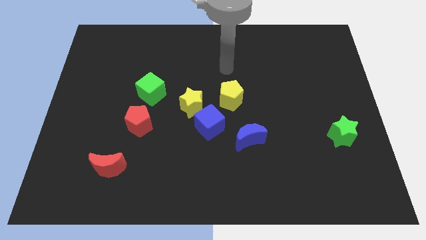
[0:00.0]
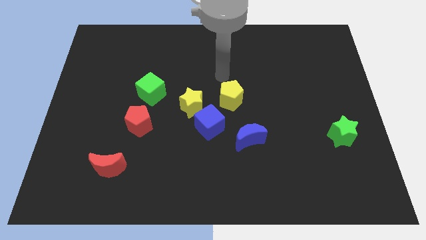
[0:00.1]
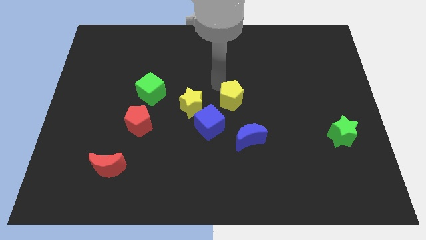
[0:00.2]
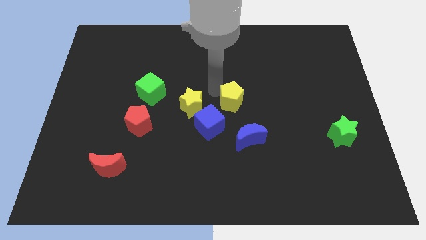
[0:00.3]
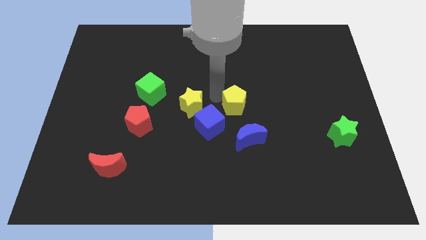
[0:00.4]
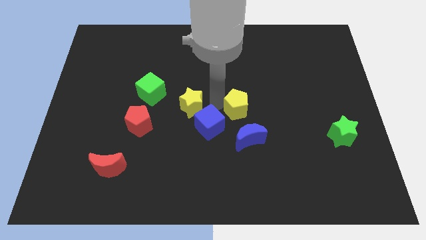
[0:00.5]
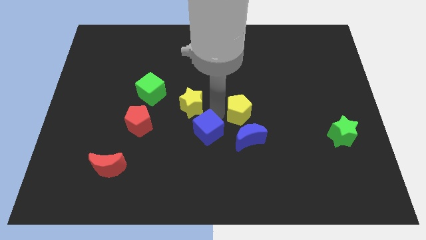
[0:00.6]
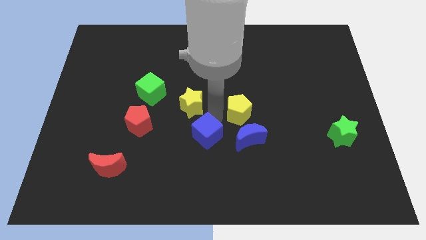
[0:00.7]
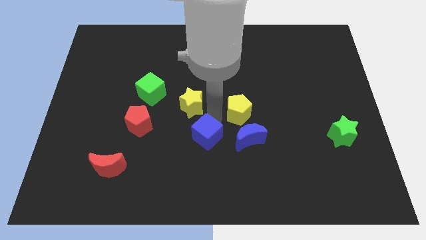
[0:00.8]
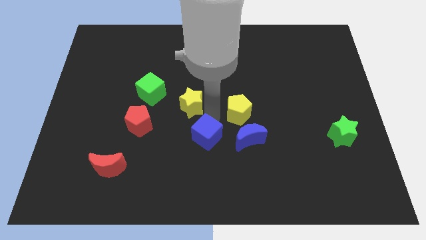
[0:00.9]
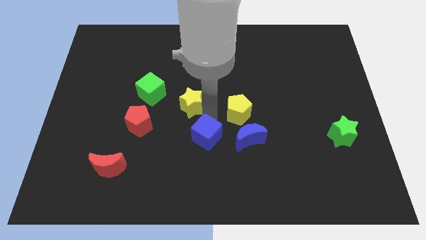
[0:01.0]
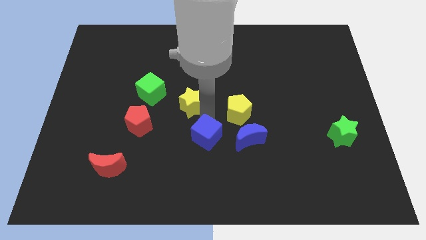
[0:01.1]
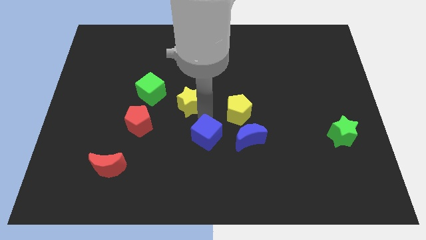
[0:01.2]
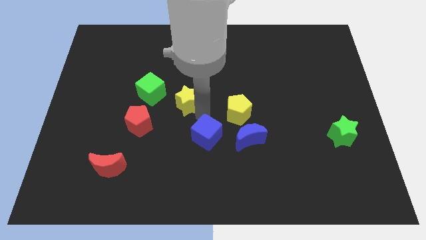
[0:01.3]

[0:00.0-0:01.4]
pull the yellow star apart from the blue cube and yellow pentagon

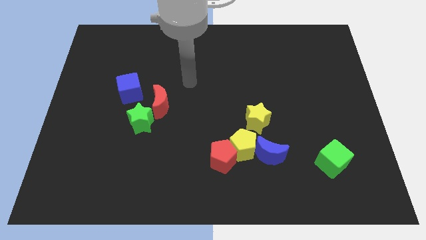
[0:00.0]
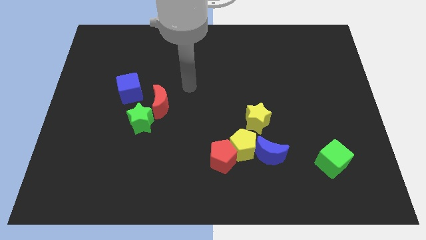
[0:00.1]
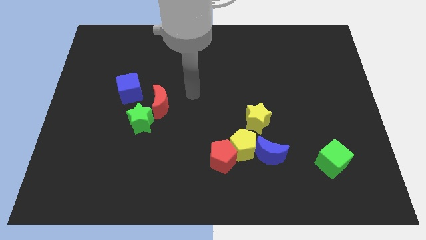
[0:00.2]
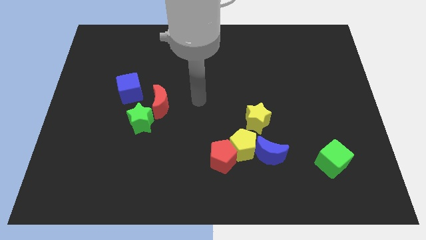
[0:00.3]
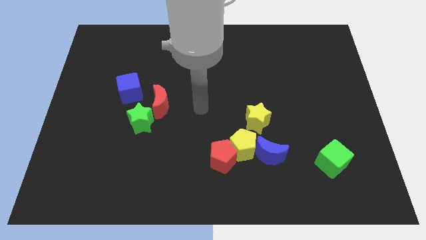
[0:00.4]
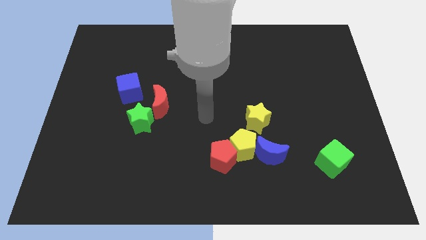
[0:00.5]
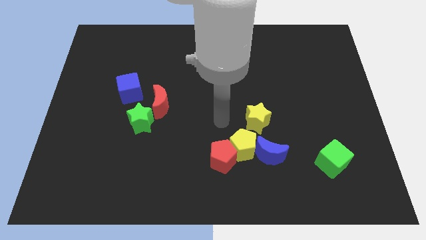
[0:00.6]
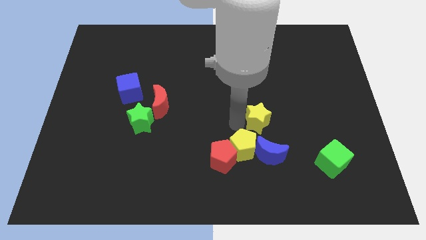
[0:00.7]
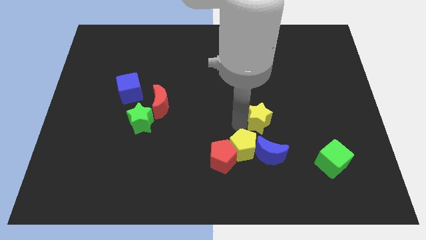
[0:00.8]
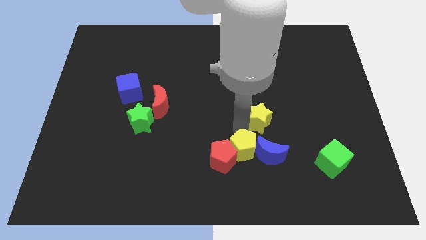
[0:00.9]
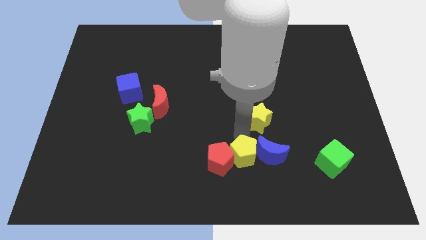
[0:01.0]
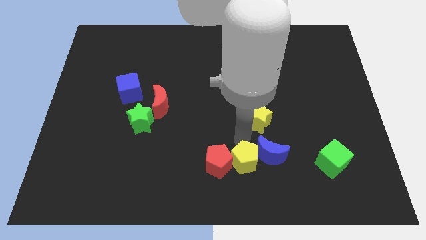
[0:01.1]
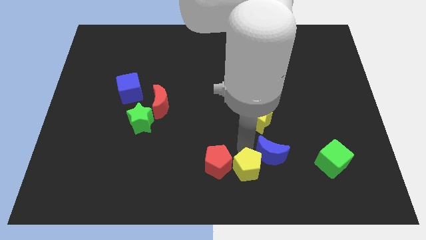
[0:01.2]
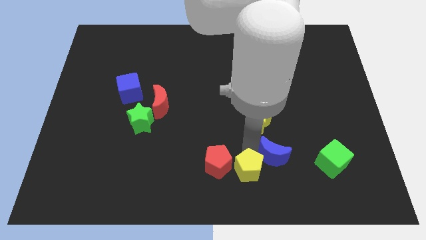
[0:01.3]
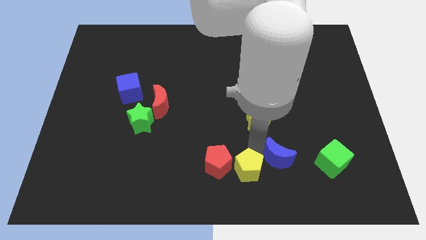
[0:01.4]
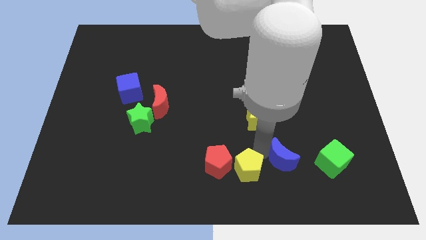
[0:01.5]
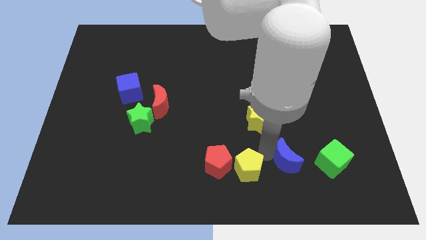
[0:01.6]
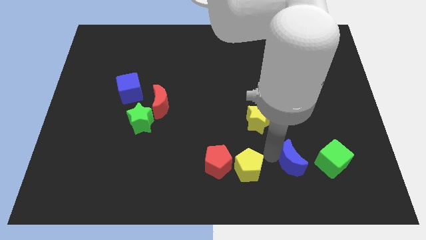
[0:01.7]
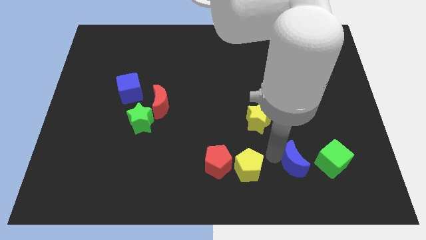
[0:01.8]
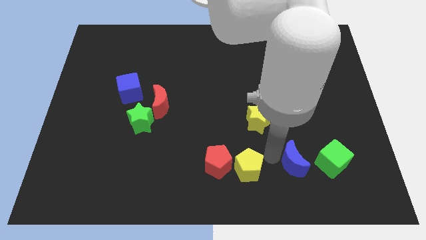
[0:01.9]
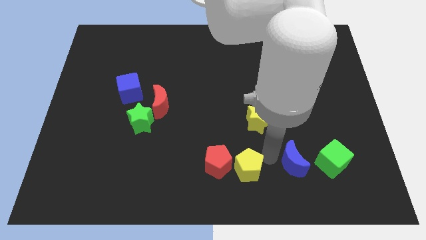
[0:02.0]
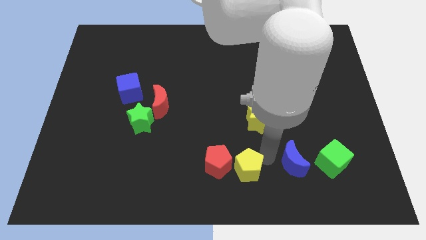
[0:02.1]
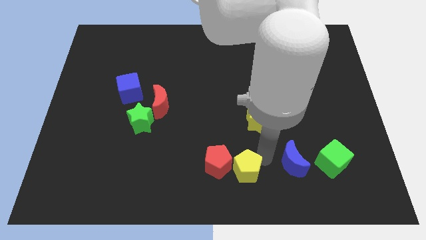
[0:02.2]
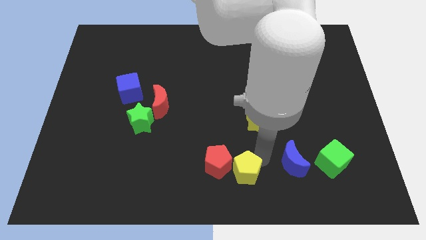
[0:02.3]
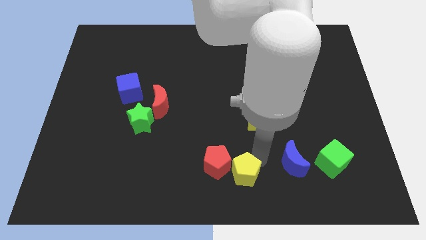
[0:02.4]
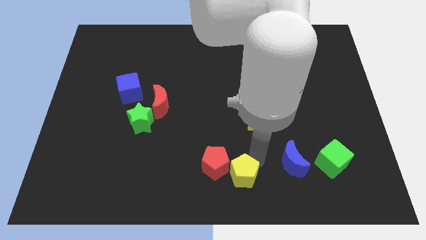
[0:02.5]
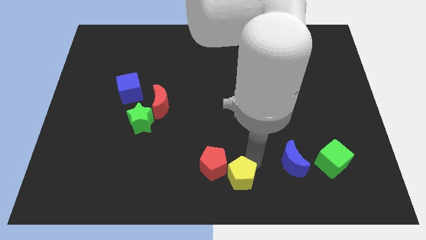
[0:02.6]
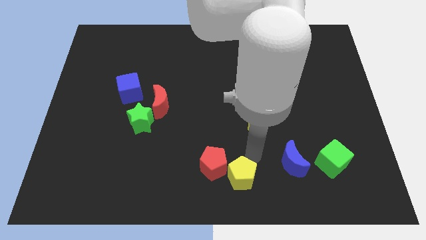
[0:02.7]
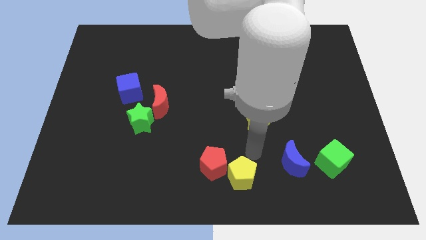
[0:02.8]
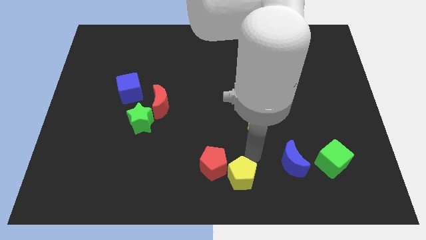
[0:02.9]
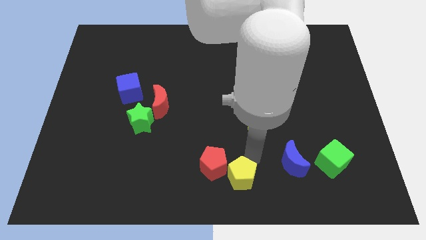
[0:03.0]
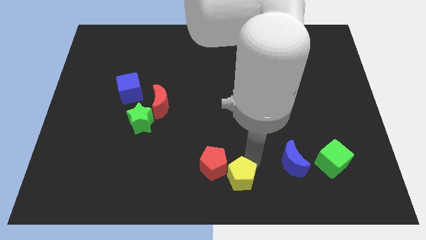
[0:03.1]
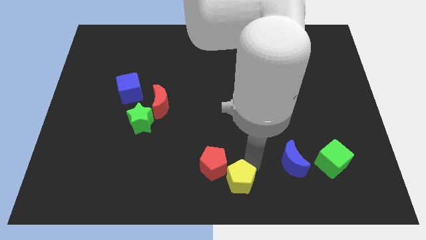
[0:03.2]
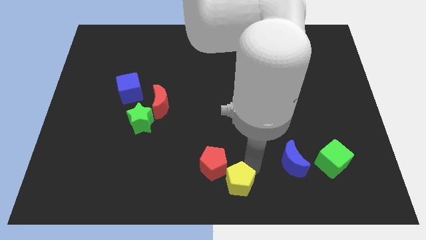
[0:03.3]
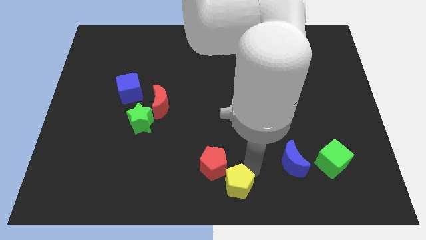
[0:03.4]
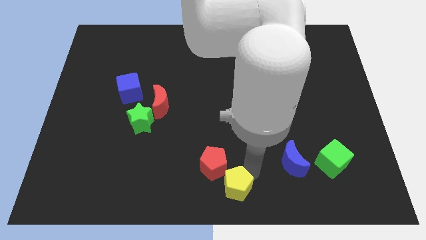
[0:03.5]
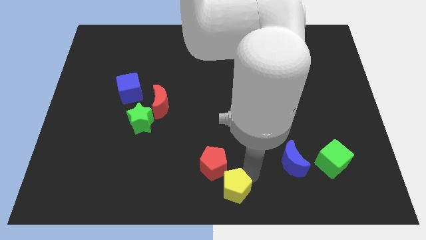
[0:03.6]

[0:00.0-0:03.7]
move the yellow pentagon away from the group

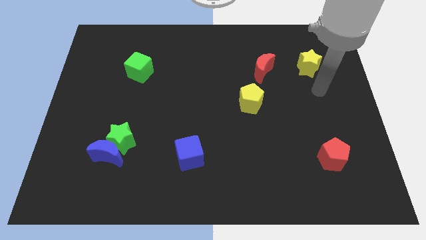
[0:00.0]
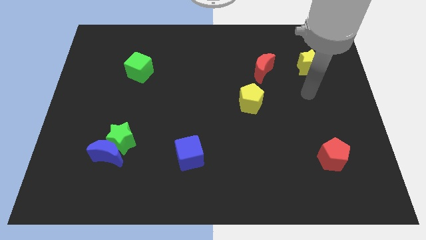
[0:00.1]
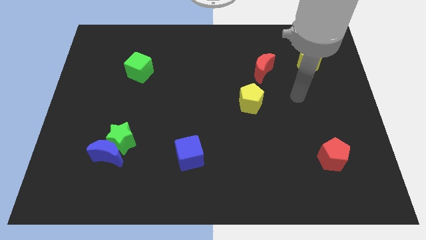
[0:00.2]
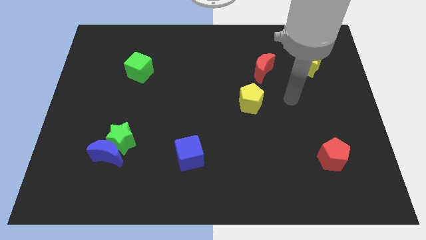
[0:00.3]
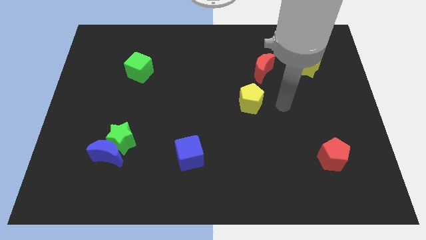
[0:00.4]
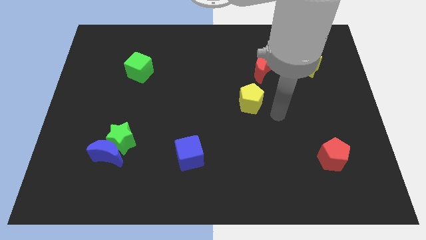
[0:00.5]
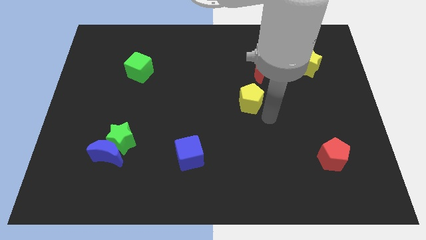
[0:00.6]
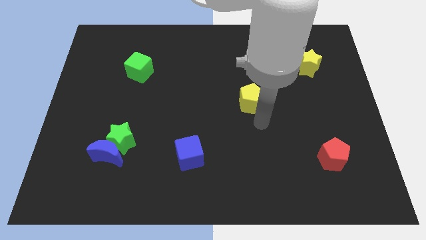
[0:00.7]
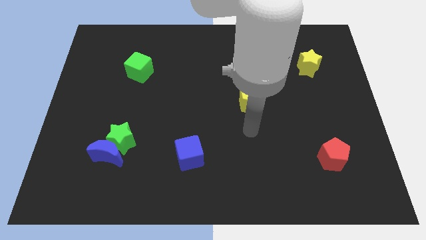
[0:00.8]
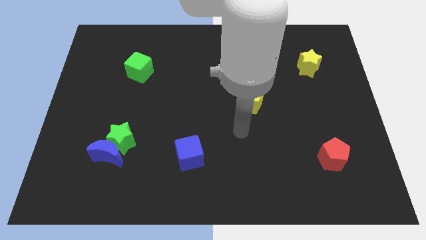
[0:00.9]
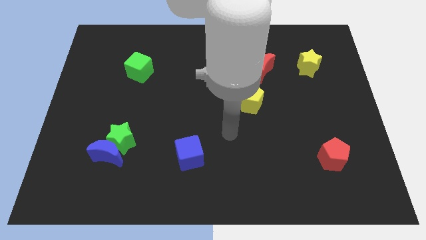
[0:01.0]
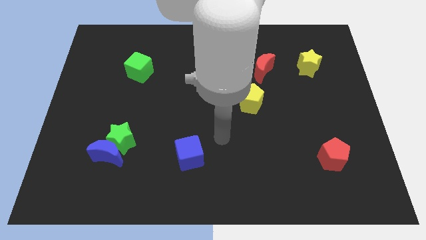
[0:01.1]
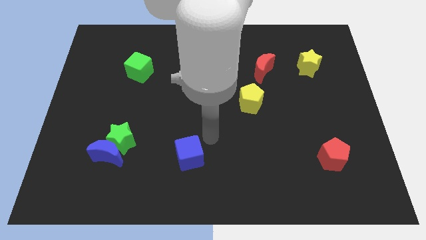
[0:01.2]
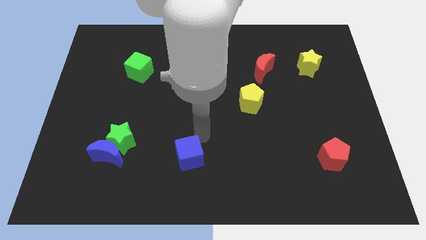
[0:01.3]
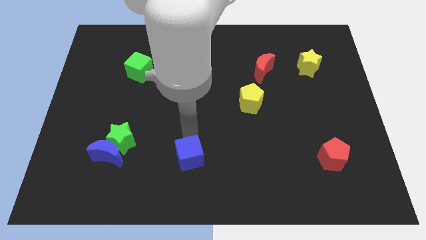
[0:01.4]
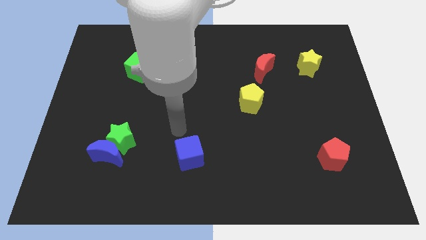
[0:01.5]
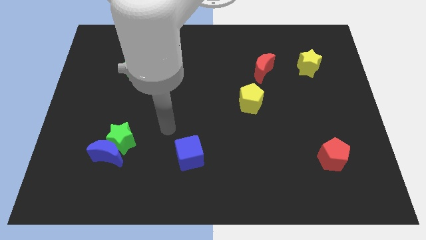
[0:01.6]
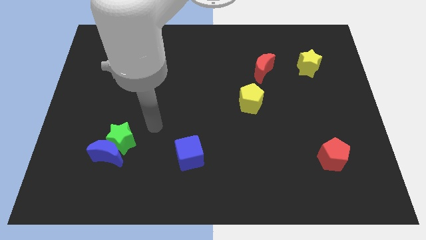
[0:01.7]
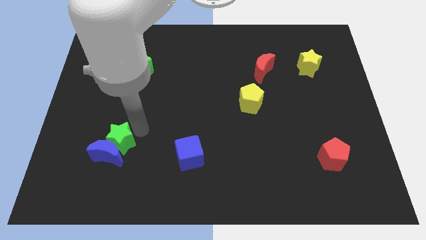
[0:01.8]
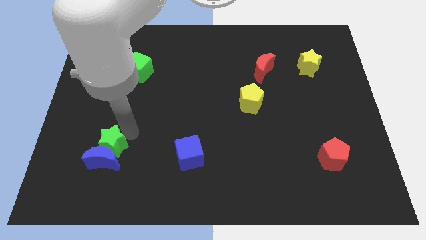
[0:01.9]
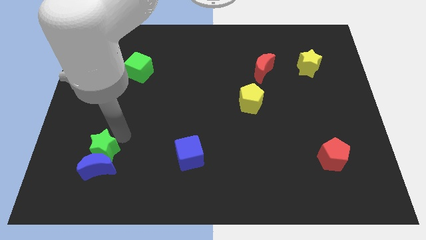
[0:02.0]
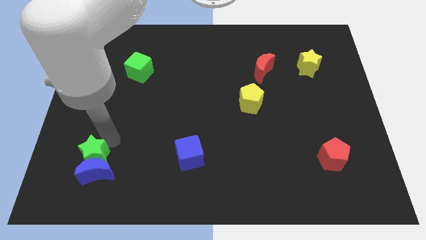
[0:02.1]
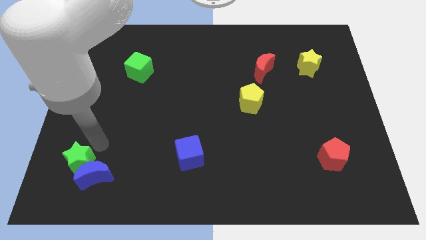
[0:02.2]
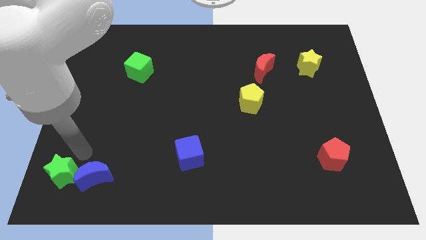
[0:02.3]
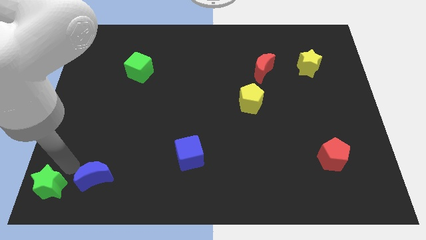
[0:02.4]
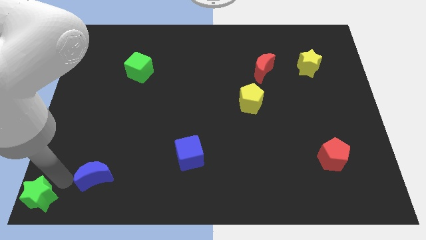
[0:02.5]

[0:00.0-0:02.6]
separate the blue moon from the green star

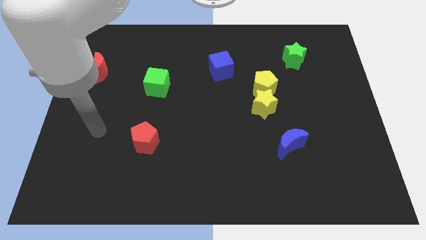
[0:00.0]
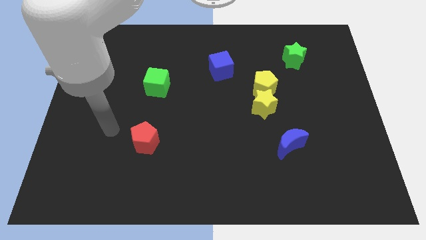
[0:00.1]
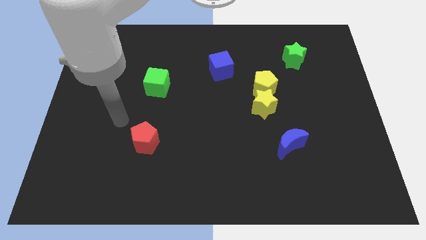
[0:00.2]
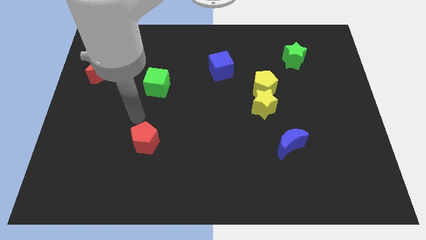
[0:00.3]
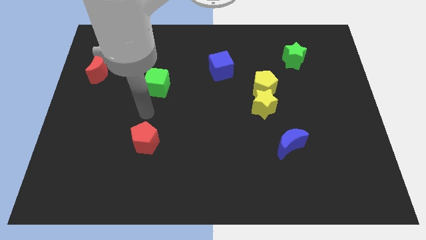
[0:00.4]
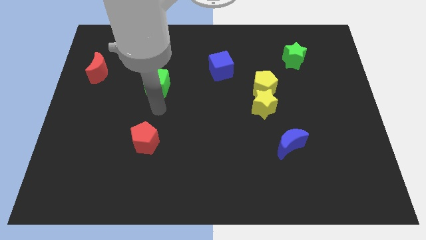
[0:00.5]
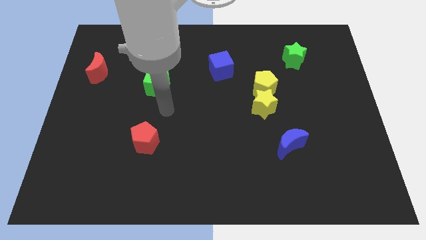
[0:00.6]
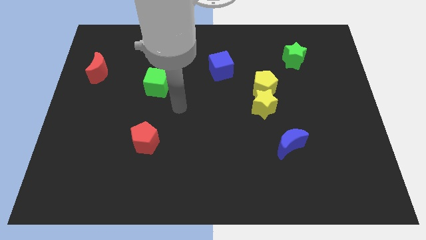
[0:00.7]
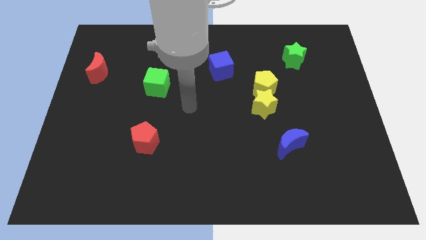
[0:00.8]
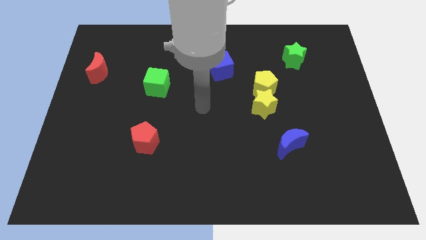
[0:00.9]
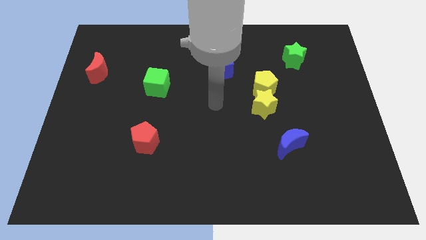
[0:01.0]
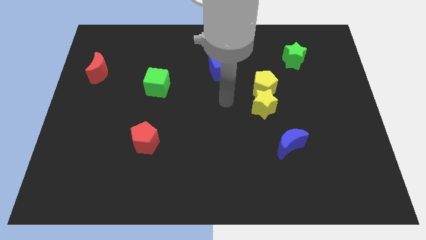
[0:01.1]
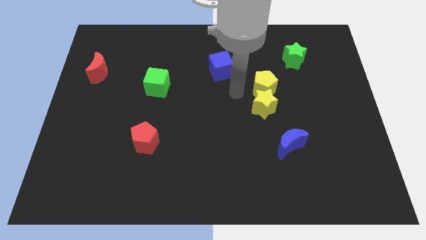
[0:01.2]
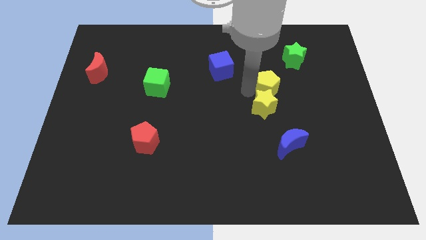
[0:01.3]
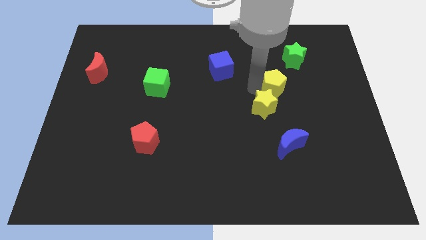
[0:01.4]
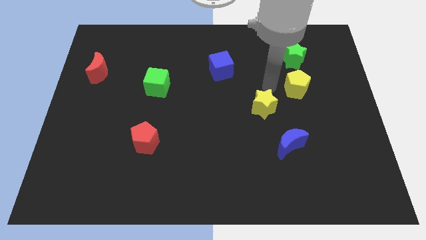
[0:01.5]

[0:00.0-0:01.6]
separate the yellow star from the yellow pentagon

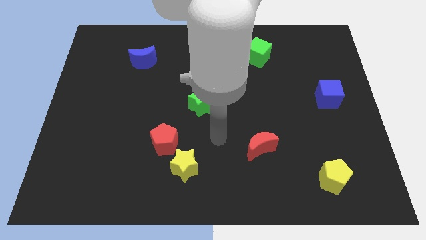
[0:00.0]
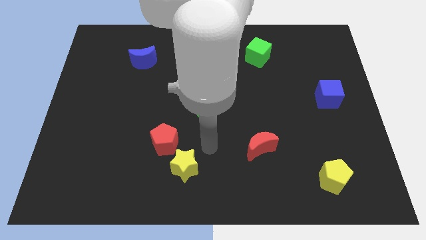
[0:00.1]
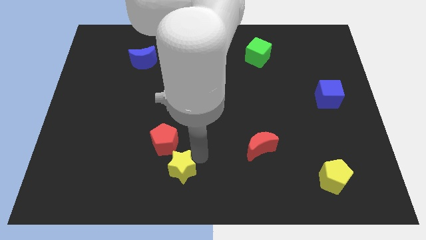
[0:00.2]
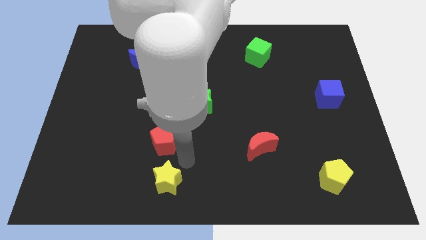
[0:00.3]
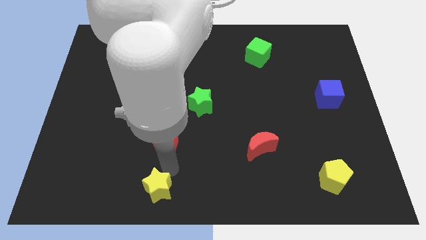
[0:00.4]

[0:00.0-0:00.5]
separate the red pentagon from the yellow star
